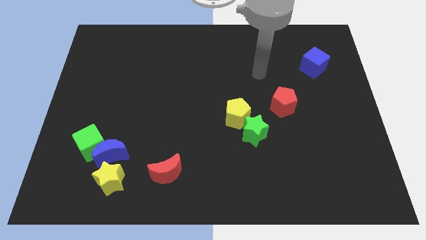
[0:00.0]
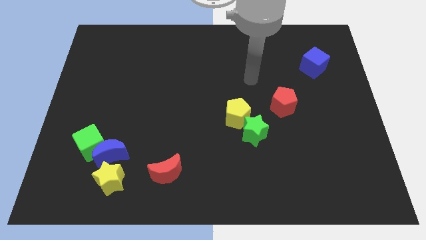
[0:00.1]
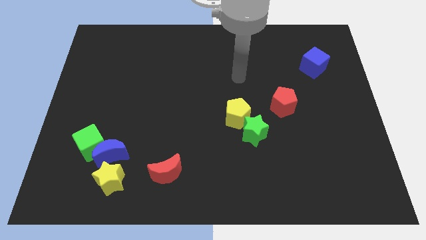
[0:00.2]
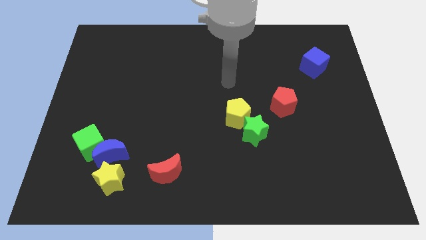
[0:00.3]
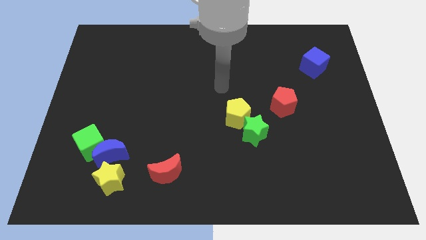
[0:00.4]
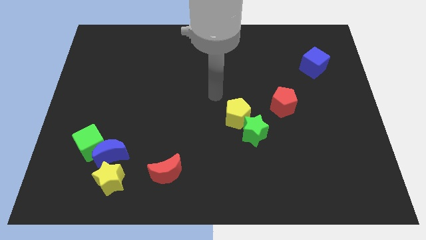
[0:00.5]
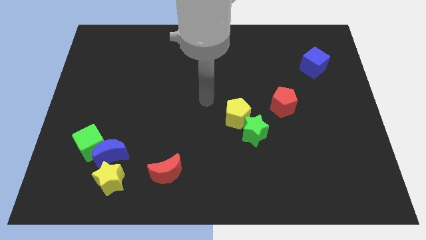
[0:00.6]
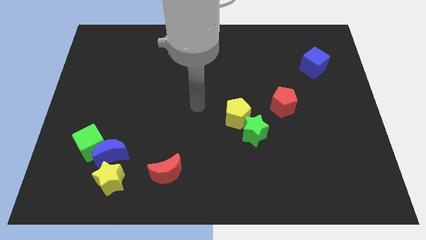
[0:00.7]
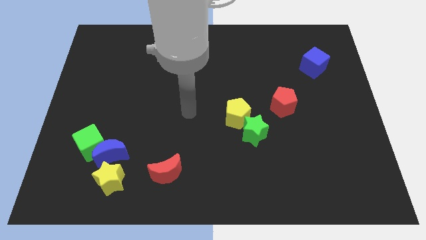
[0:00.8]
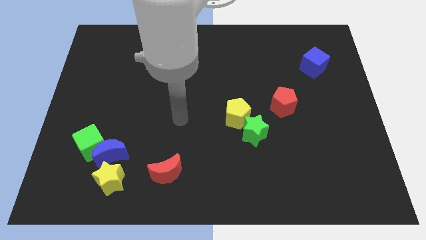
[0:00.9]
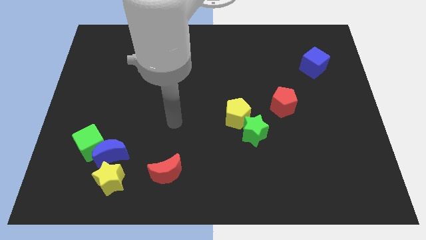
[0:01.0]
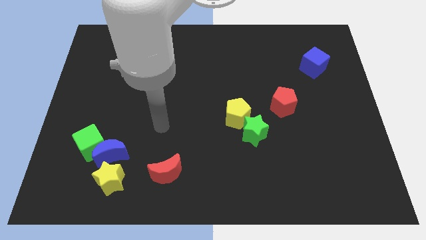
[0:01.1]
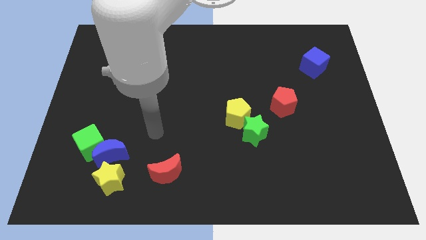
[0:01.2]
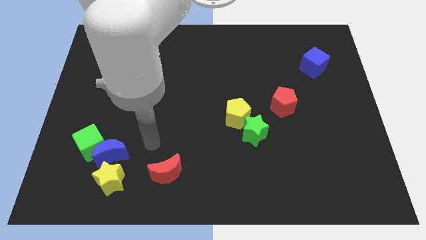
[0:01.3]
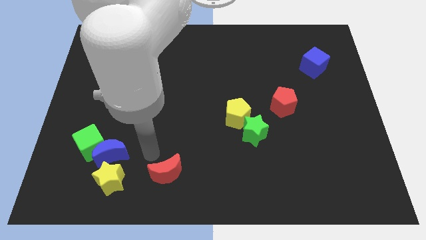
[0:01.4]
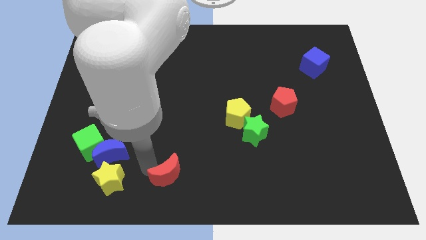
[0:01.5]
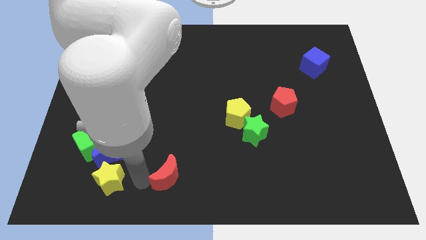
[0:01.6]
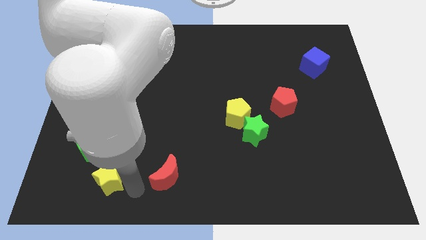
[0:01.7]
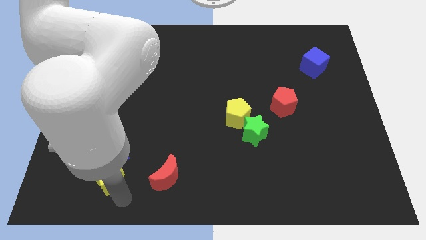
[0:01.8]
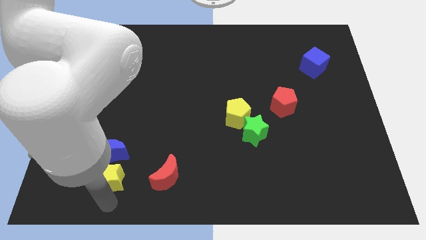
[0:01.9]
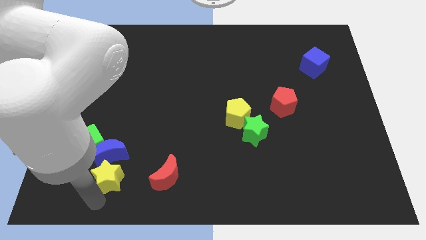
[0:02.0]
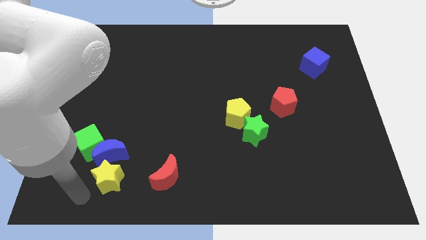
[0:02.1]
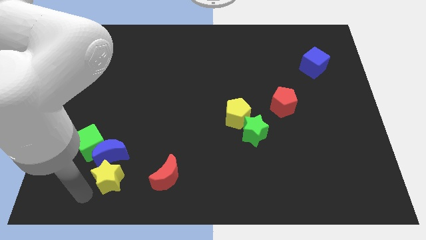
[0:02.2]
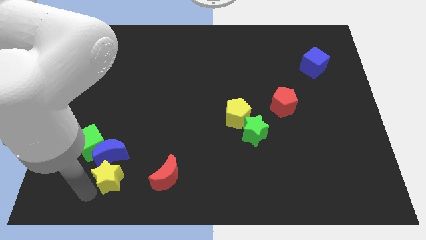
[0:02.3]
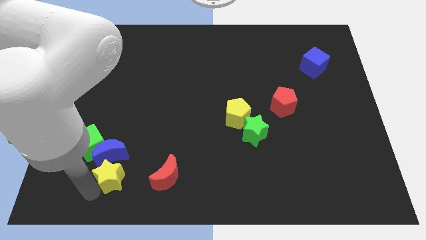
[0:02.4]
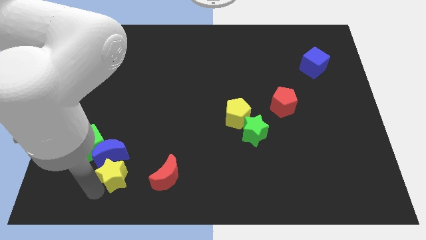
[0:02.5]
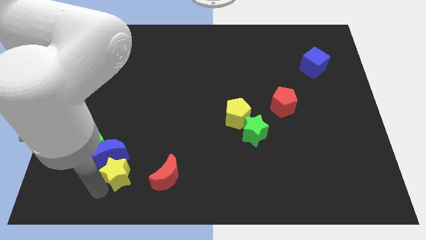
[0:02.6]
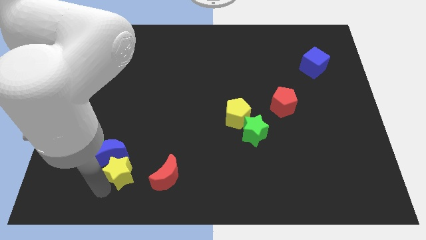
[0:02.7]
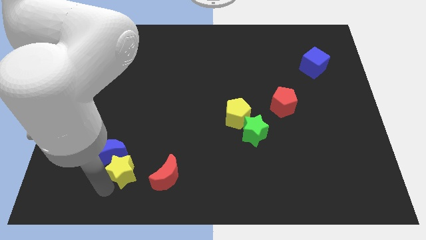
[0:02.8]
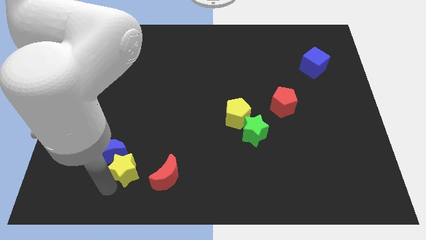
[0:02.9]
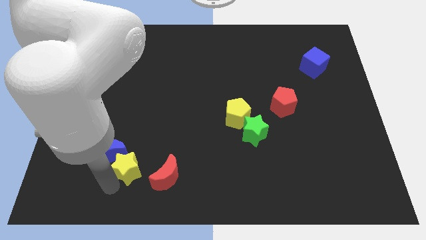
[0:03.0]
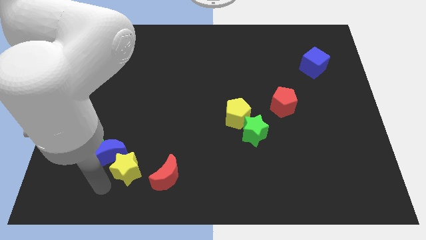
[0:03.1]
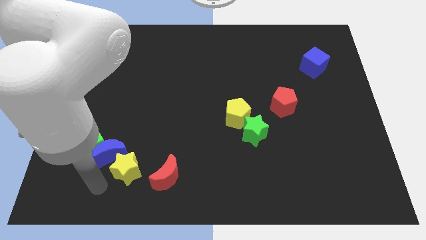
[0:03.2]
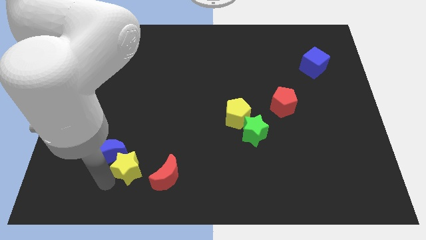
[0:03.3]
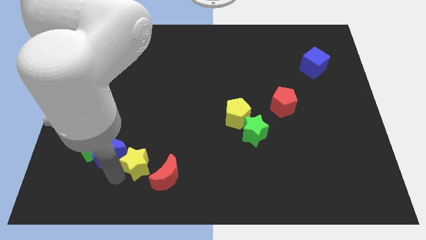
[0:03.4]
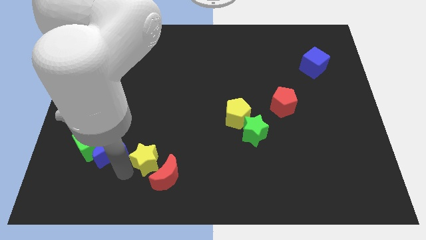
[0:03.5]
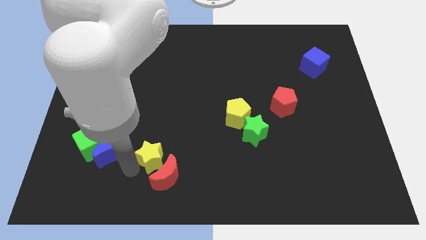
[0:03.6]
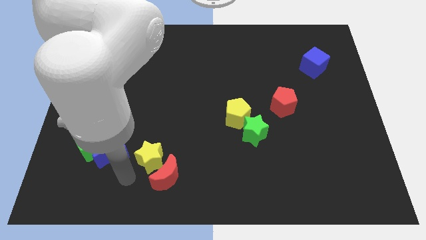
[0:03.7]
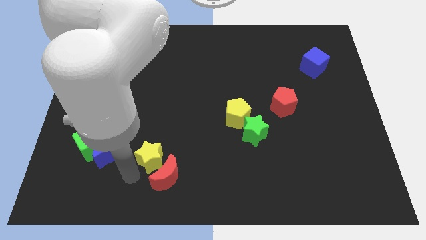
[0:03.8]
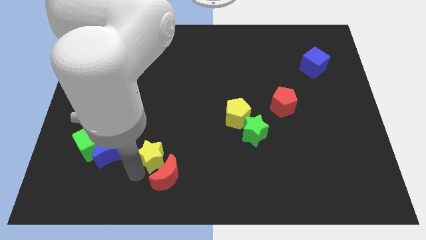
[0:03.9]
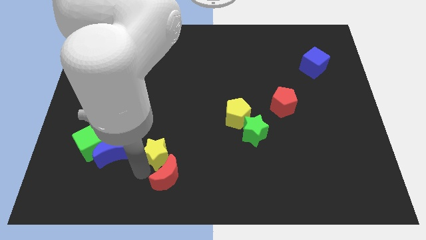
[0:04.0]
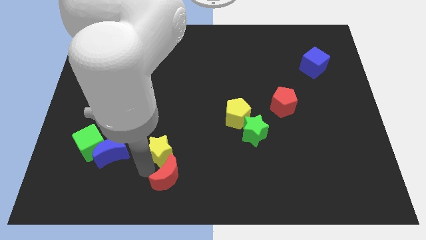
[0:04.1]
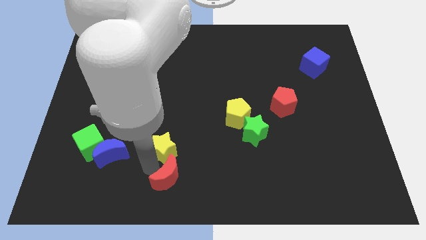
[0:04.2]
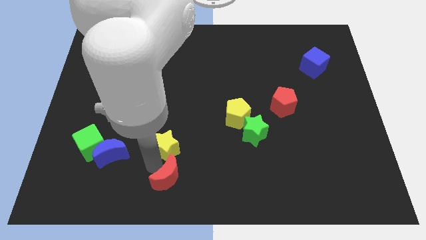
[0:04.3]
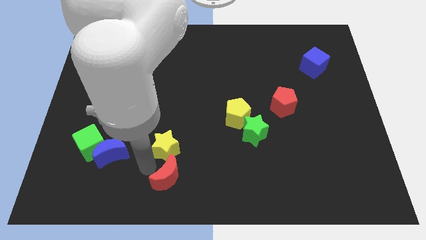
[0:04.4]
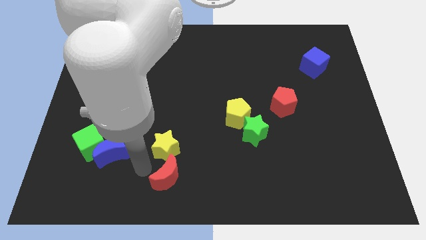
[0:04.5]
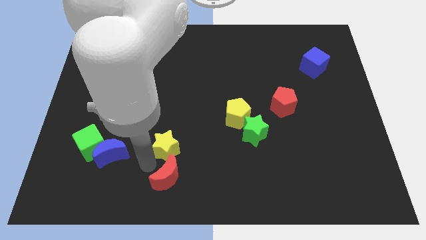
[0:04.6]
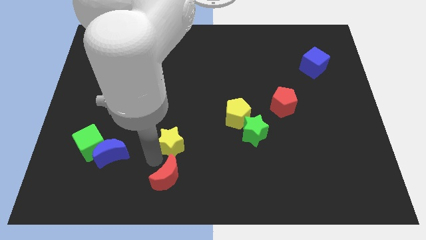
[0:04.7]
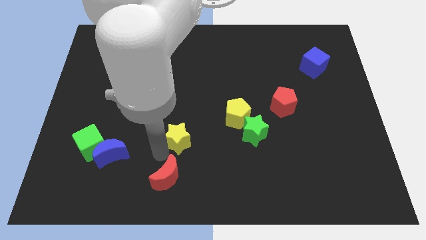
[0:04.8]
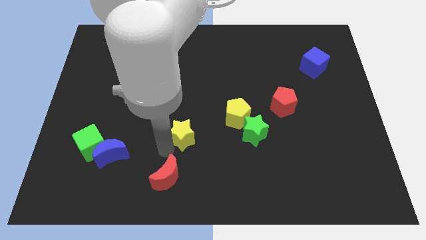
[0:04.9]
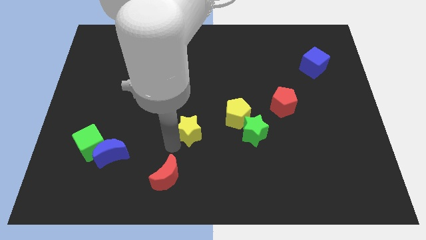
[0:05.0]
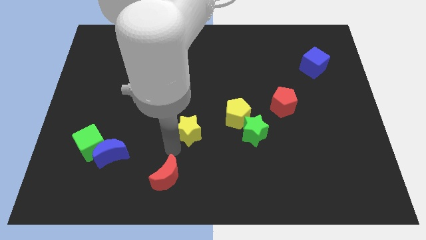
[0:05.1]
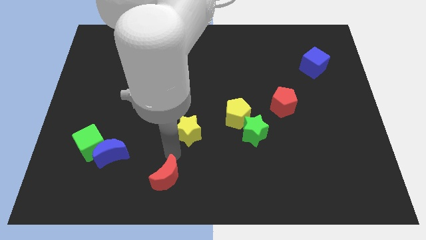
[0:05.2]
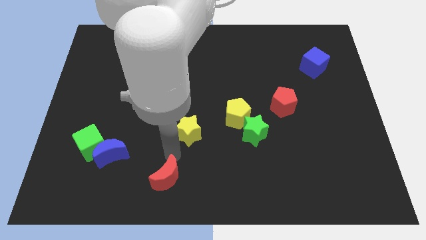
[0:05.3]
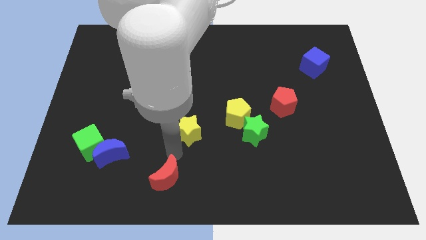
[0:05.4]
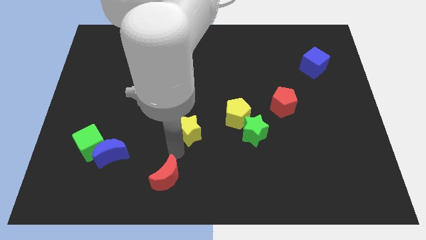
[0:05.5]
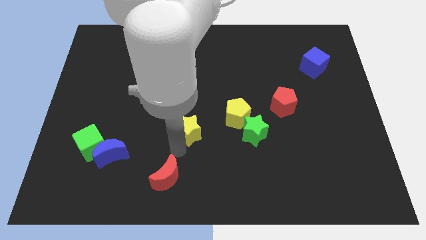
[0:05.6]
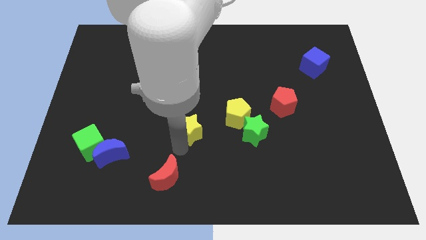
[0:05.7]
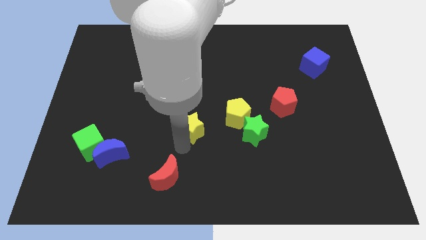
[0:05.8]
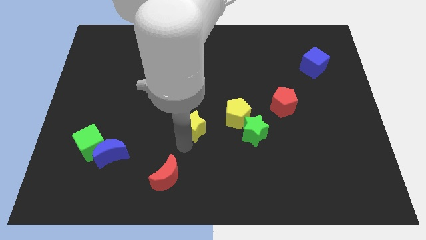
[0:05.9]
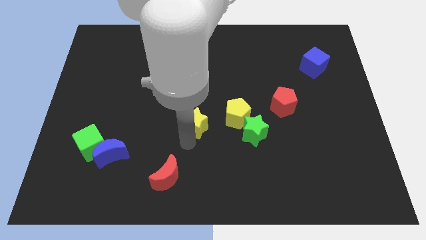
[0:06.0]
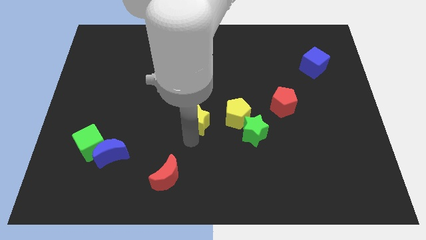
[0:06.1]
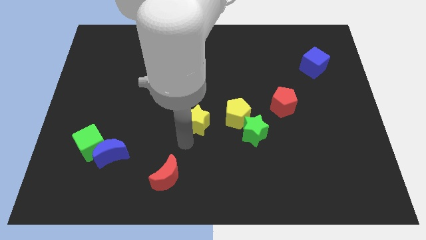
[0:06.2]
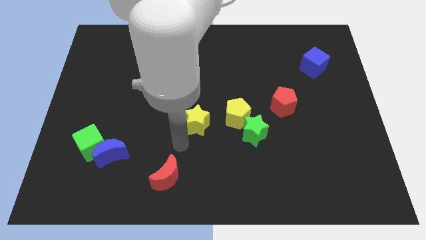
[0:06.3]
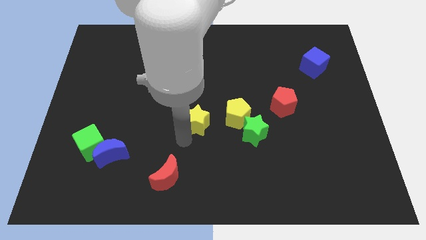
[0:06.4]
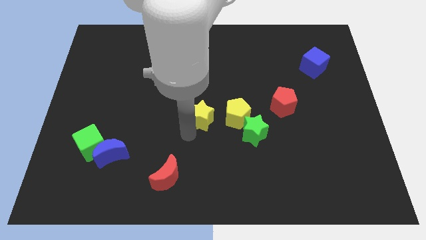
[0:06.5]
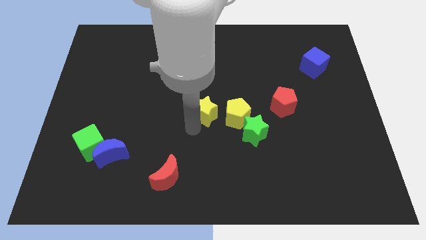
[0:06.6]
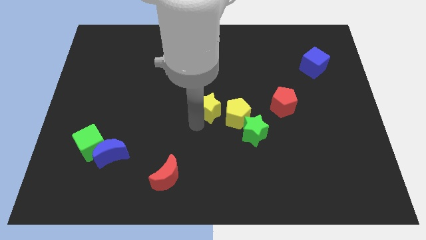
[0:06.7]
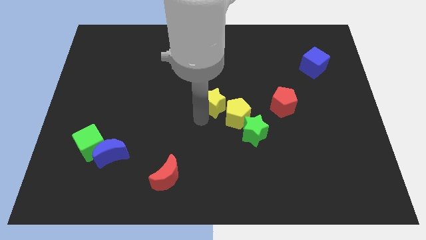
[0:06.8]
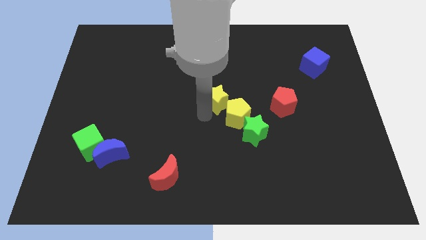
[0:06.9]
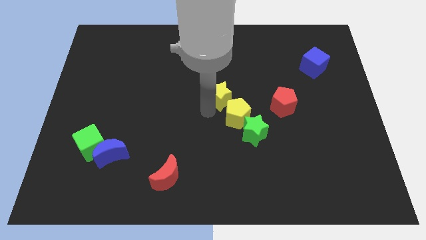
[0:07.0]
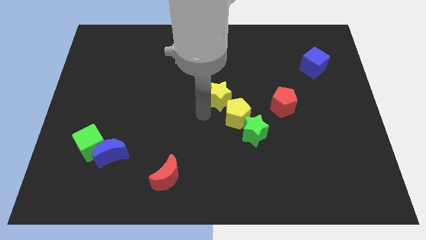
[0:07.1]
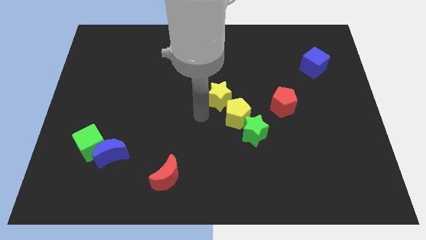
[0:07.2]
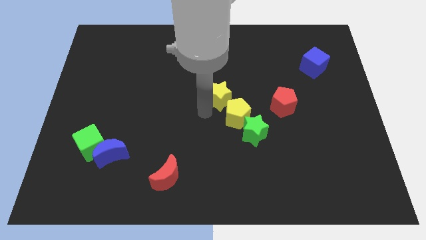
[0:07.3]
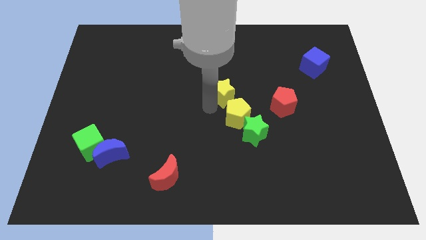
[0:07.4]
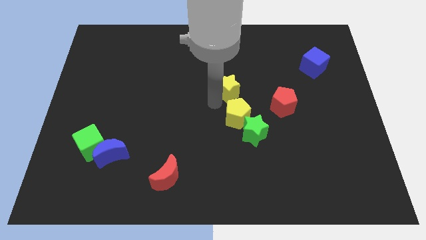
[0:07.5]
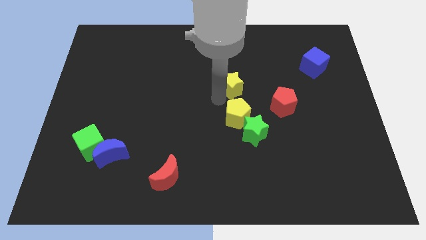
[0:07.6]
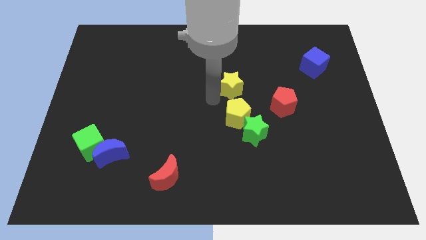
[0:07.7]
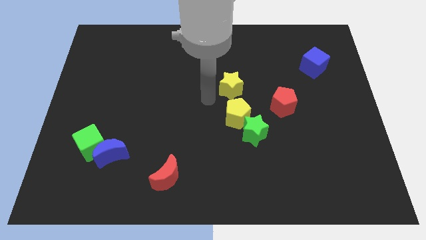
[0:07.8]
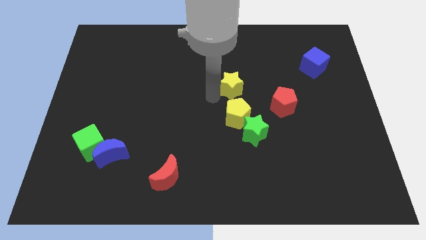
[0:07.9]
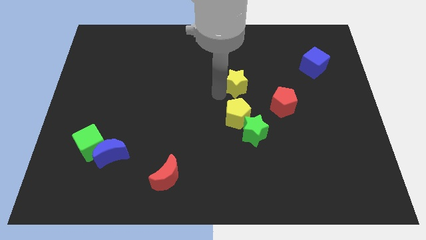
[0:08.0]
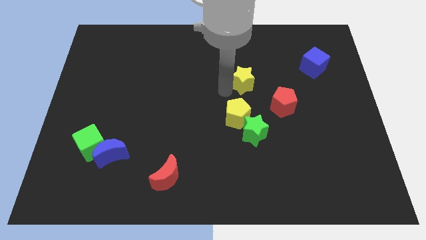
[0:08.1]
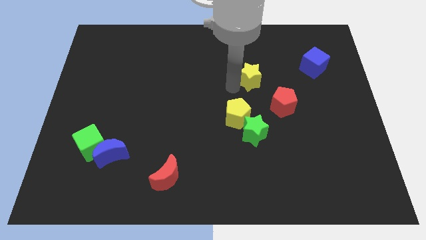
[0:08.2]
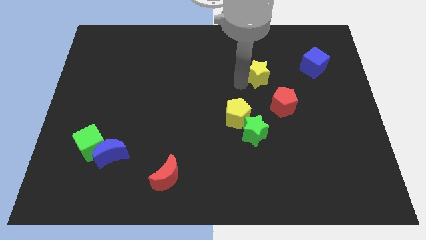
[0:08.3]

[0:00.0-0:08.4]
push the yellow star just left of the blue cube
